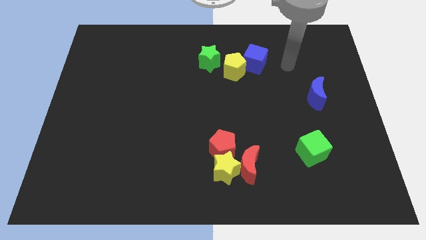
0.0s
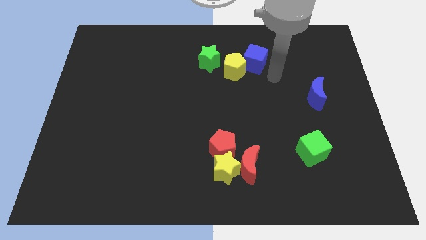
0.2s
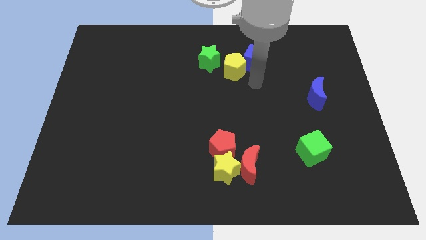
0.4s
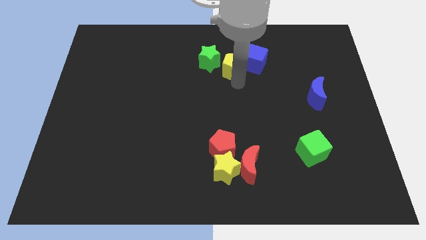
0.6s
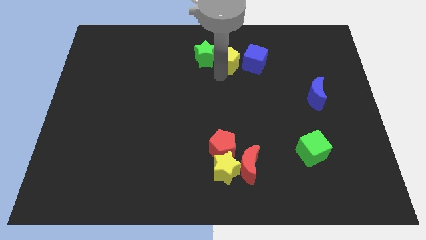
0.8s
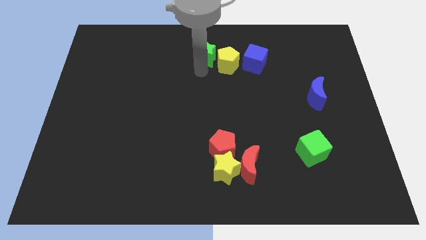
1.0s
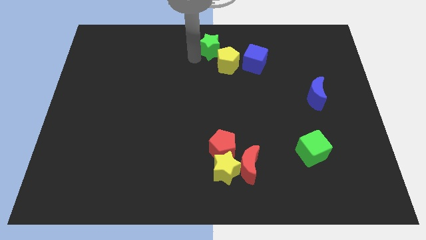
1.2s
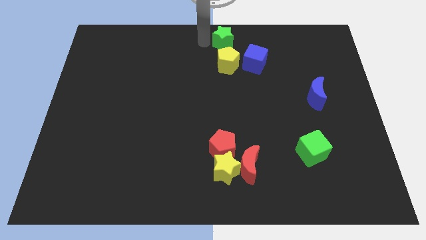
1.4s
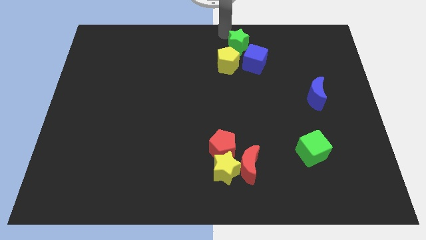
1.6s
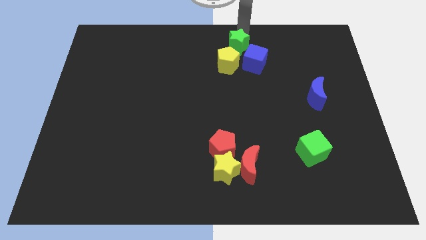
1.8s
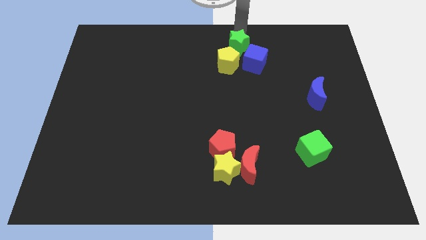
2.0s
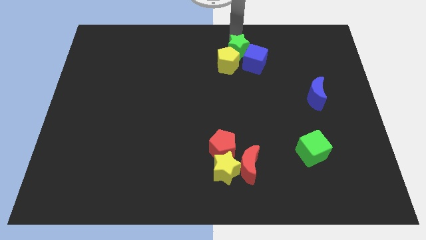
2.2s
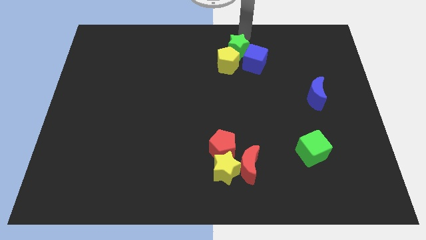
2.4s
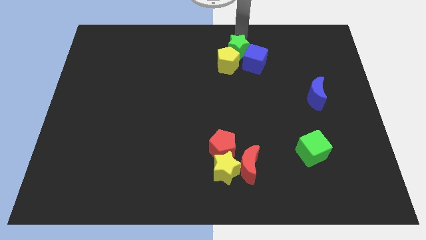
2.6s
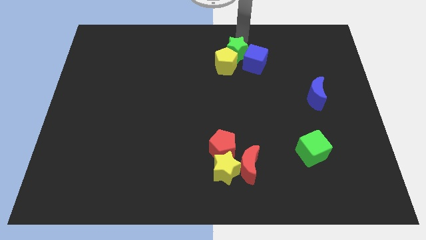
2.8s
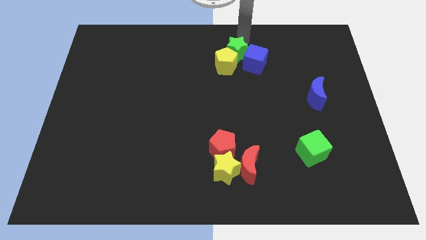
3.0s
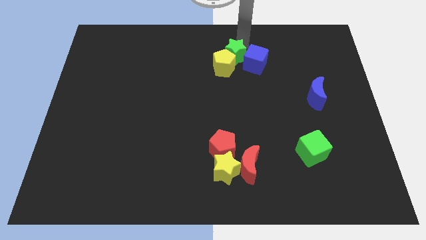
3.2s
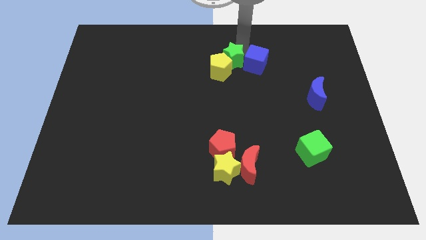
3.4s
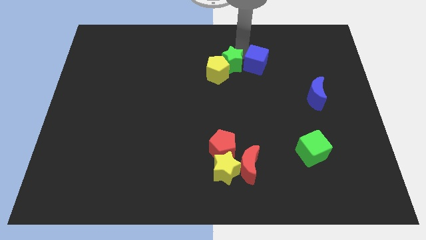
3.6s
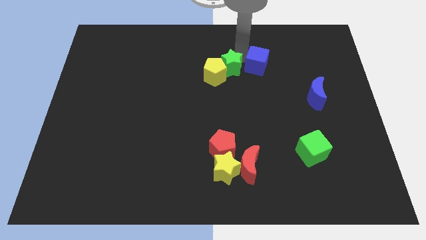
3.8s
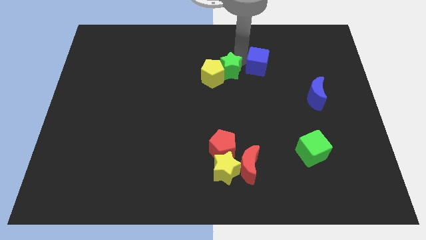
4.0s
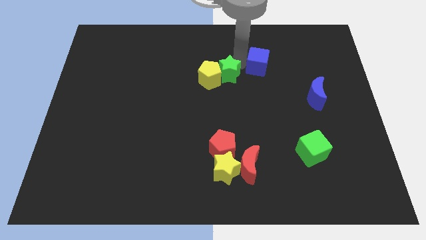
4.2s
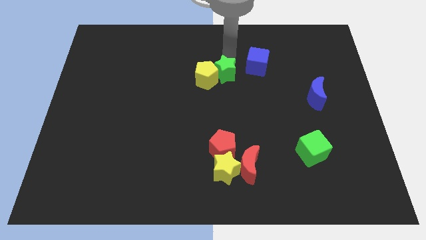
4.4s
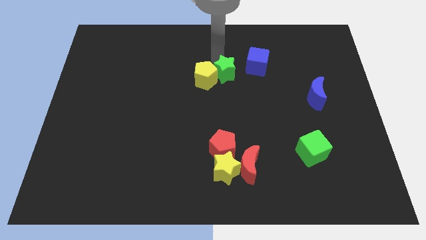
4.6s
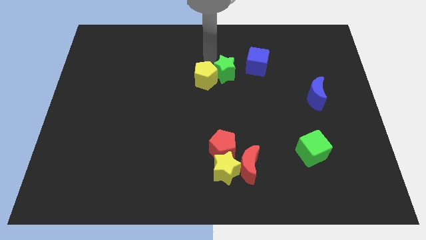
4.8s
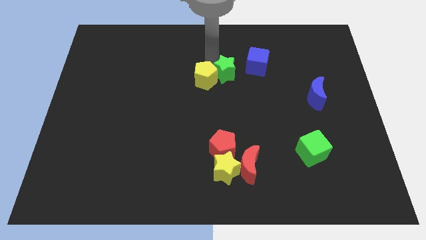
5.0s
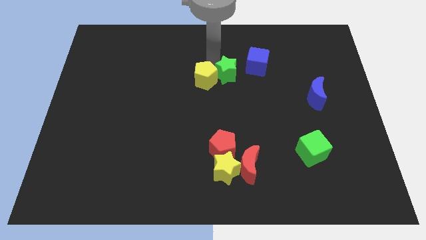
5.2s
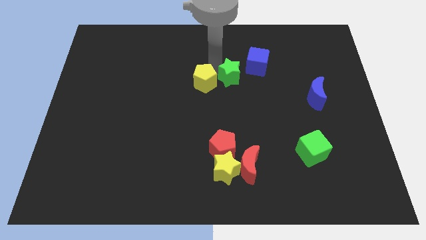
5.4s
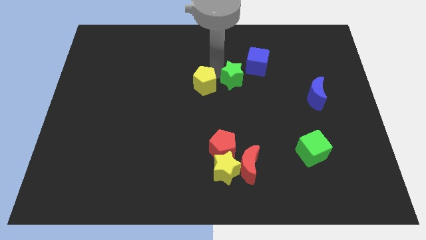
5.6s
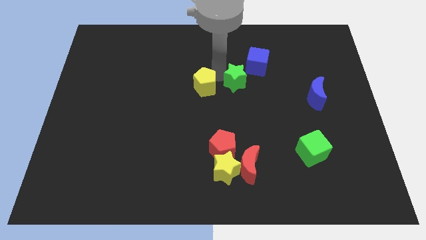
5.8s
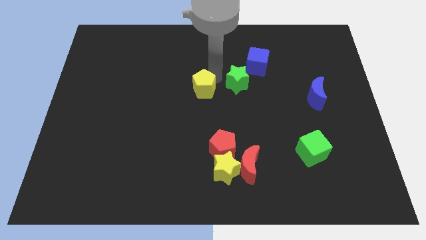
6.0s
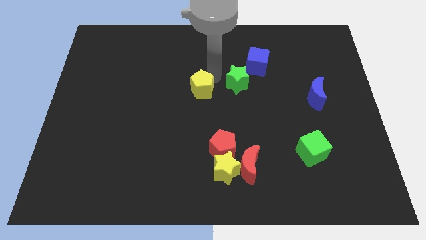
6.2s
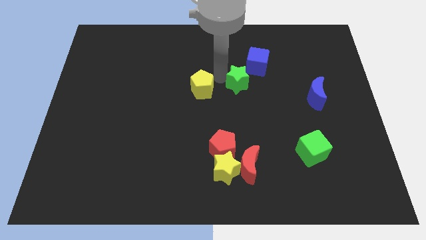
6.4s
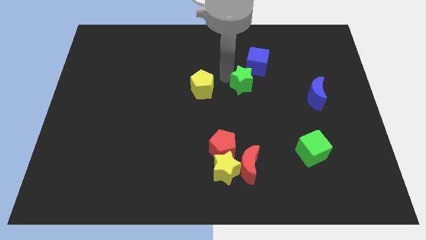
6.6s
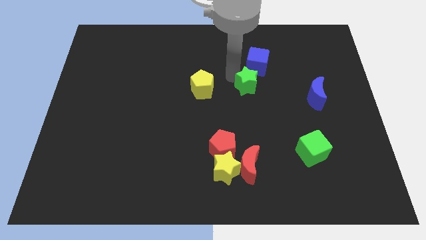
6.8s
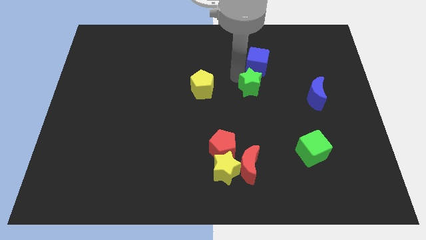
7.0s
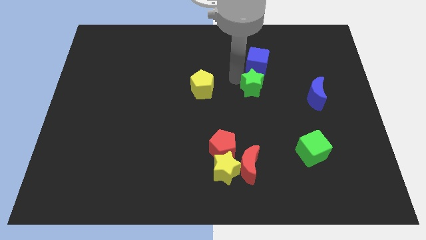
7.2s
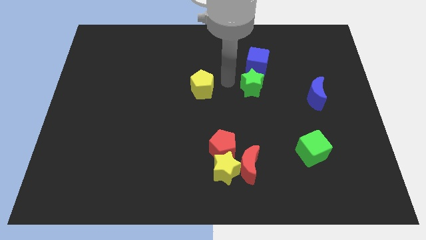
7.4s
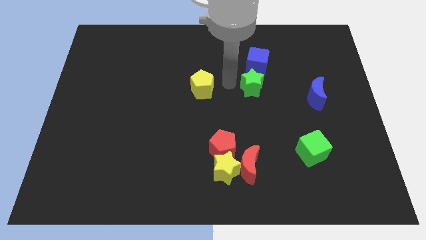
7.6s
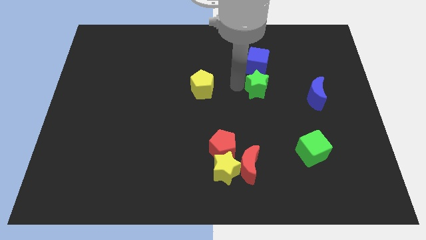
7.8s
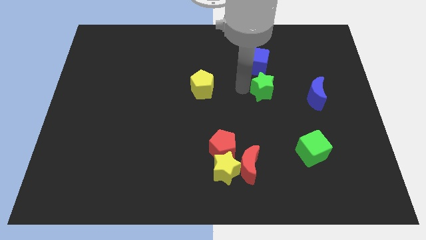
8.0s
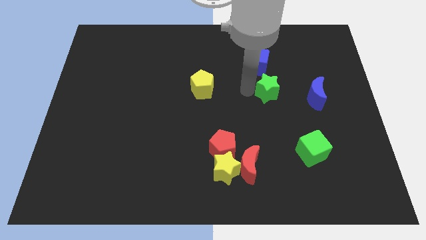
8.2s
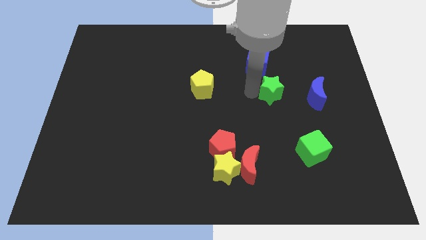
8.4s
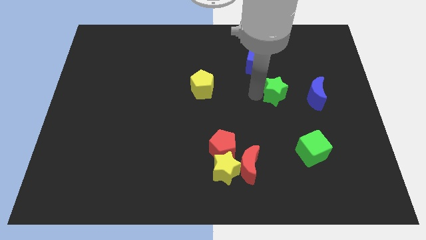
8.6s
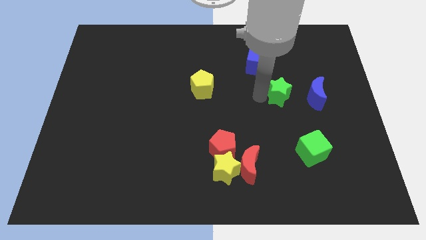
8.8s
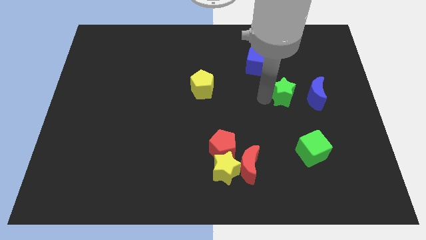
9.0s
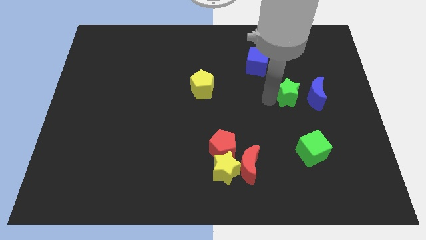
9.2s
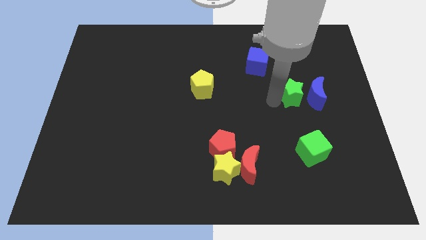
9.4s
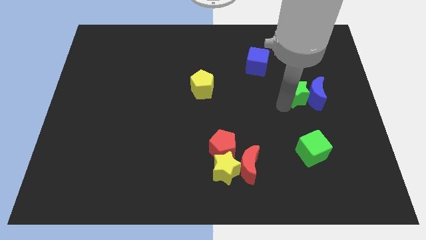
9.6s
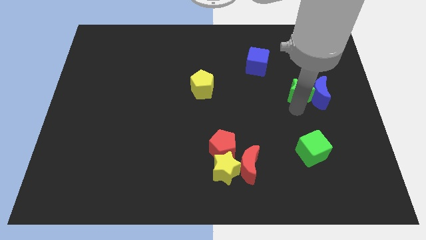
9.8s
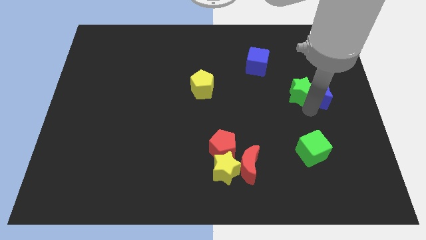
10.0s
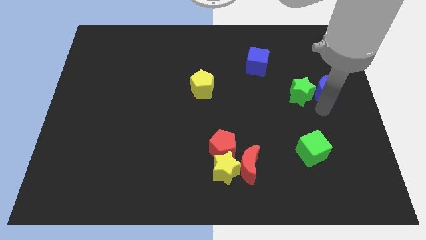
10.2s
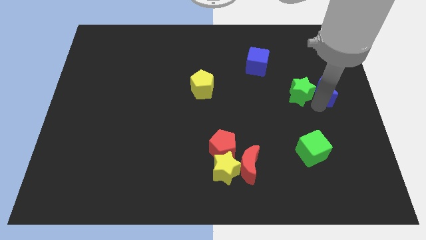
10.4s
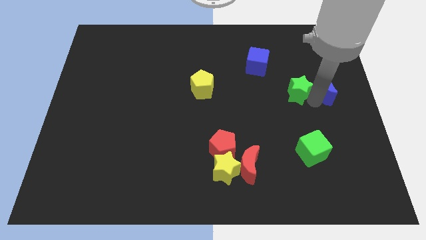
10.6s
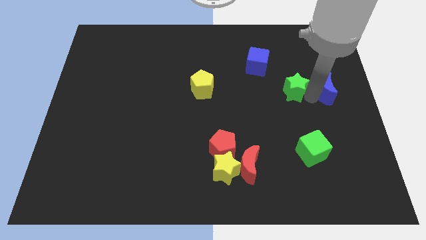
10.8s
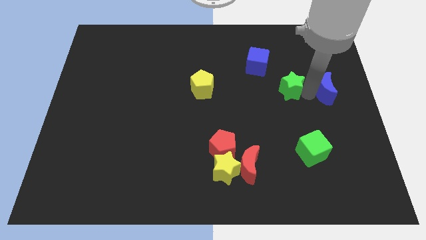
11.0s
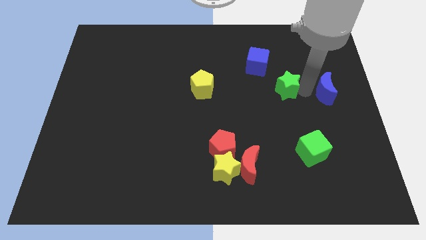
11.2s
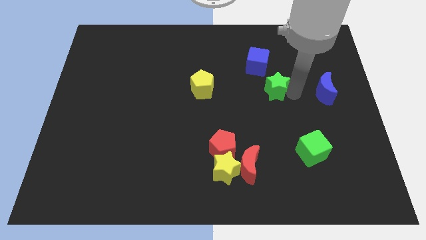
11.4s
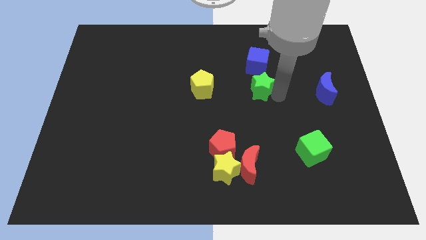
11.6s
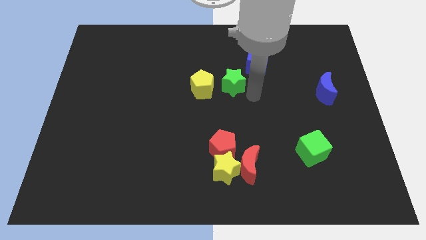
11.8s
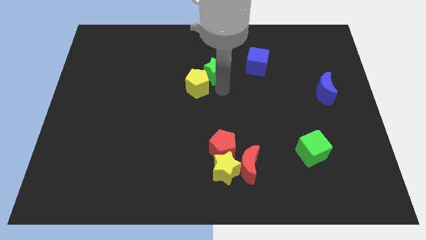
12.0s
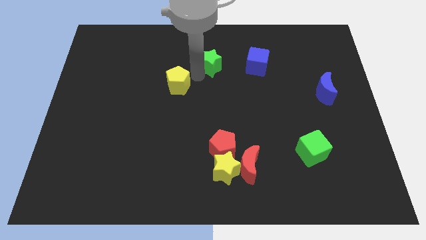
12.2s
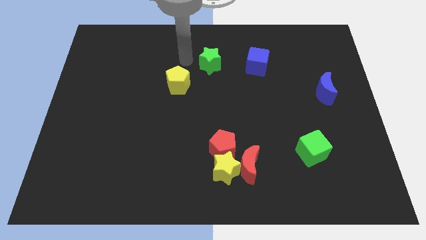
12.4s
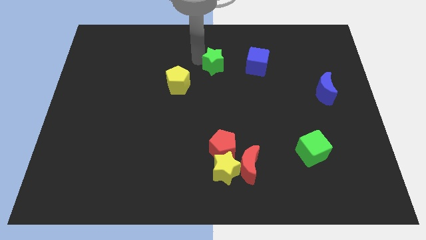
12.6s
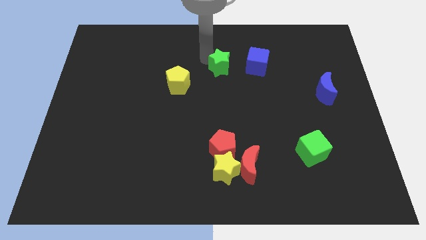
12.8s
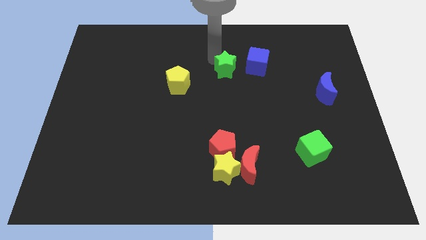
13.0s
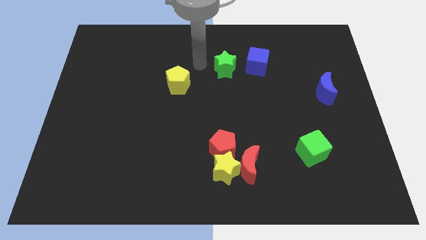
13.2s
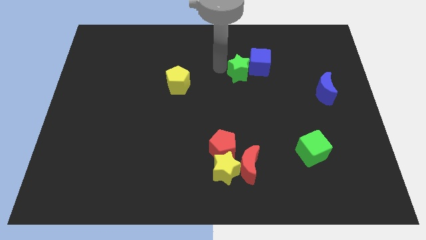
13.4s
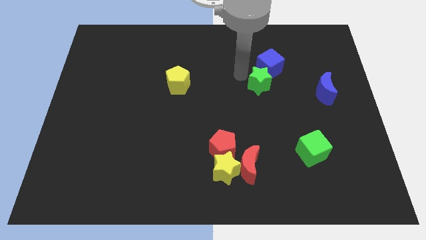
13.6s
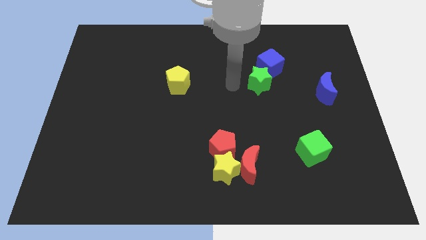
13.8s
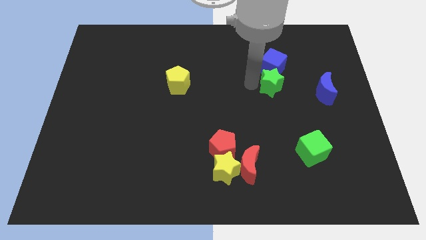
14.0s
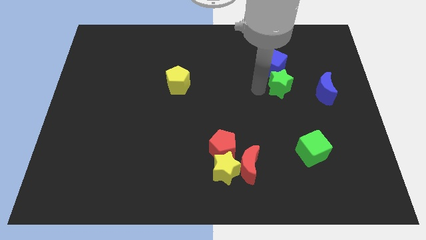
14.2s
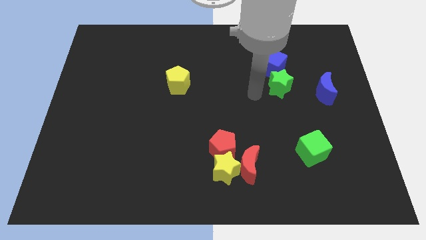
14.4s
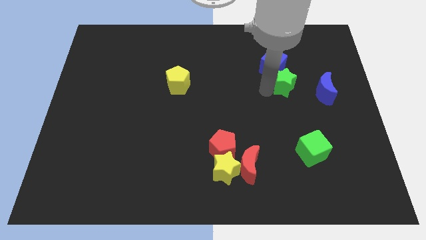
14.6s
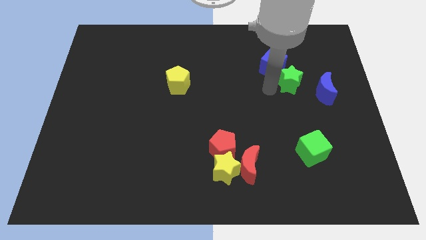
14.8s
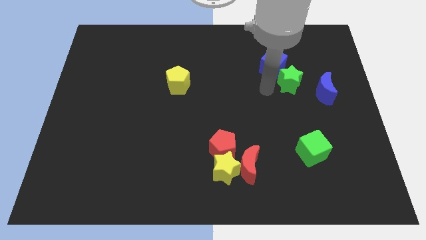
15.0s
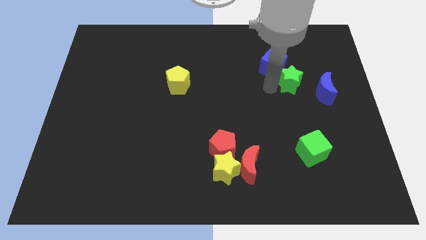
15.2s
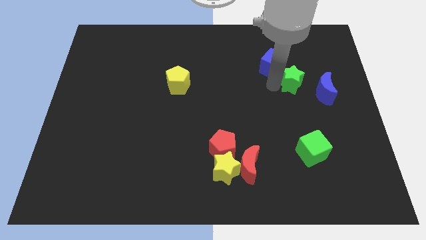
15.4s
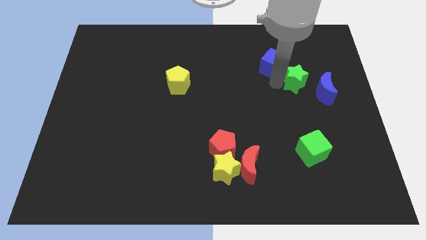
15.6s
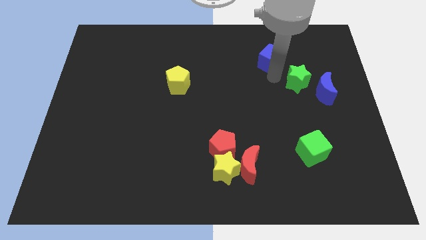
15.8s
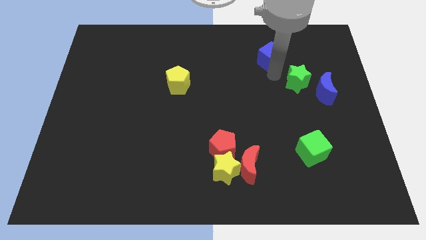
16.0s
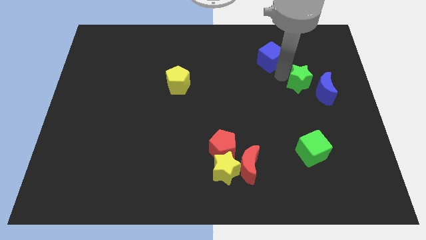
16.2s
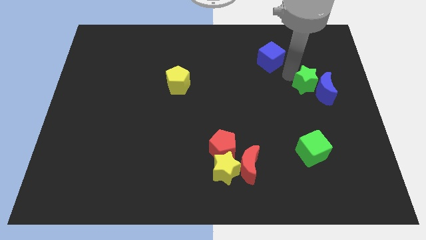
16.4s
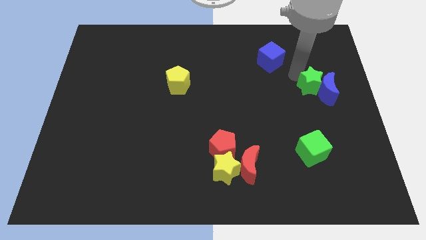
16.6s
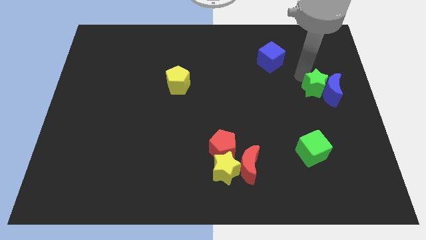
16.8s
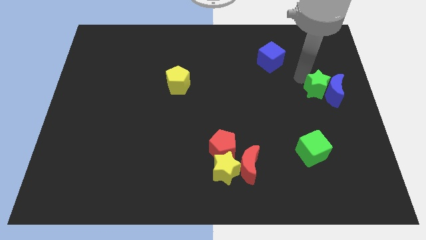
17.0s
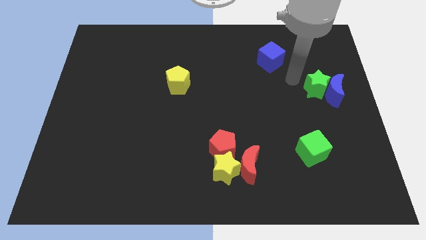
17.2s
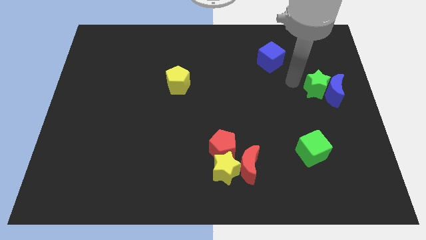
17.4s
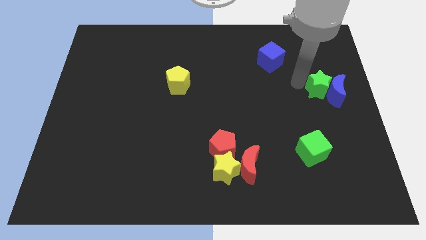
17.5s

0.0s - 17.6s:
slide the green star to the center right
